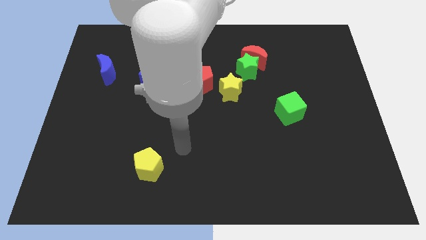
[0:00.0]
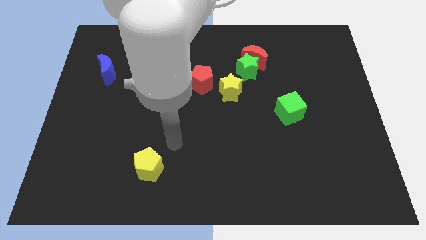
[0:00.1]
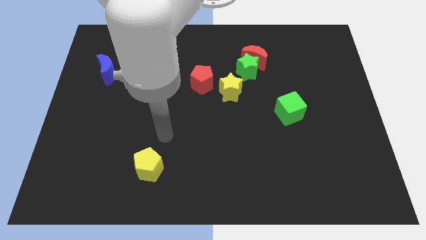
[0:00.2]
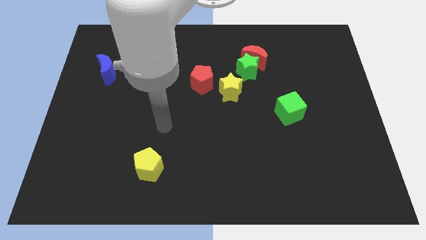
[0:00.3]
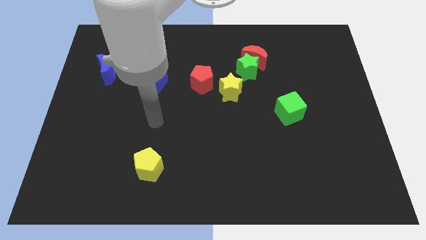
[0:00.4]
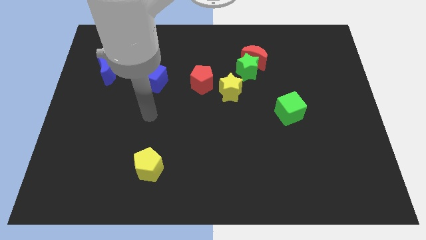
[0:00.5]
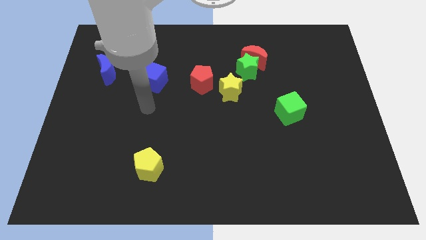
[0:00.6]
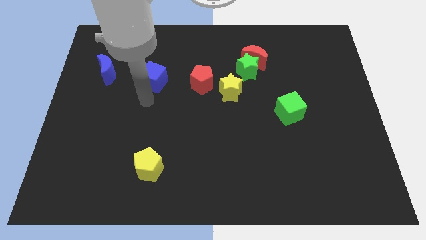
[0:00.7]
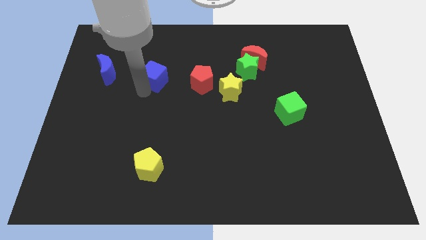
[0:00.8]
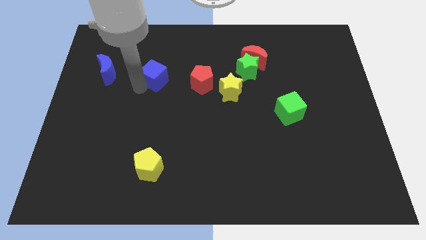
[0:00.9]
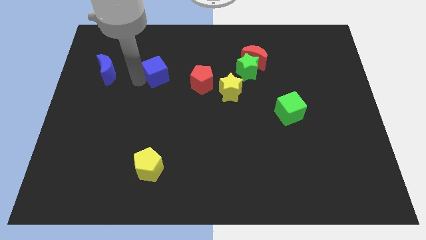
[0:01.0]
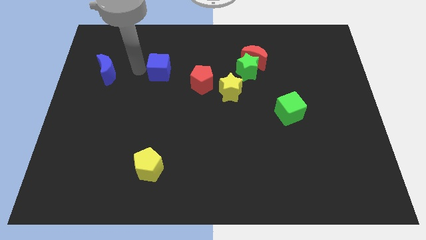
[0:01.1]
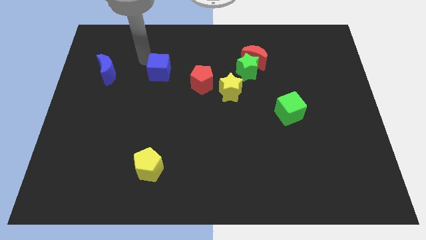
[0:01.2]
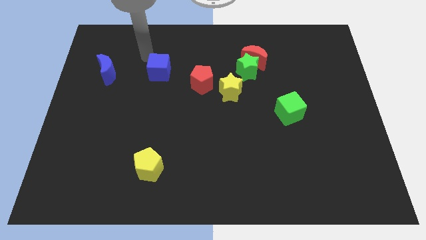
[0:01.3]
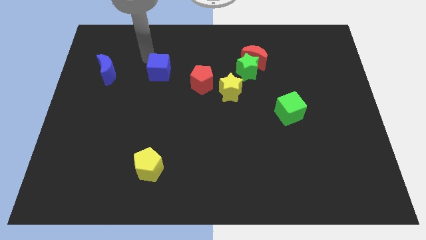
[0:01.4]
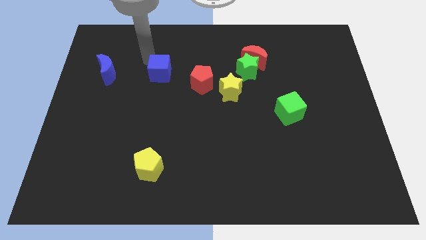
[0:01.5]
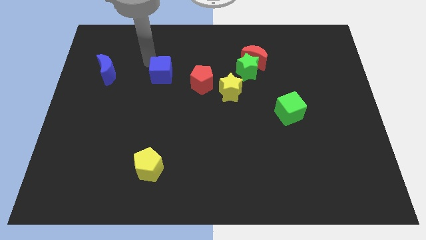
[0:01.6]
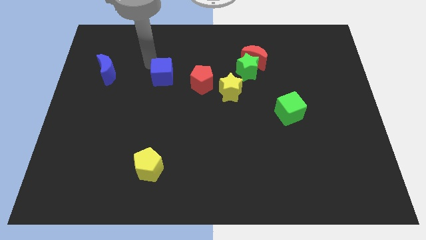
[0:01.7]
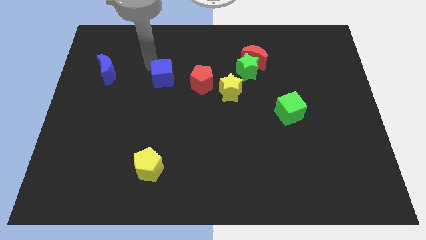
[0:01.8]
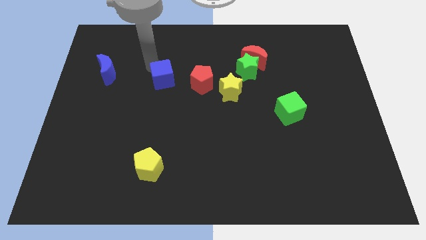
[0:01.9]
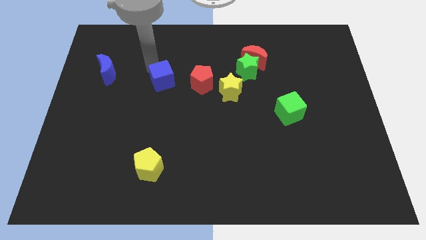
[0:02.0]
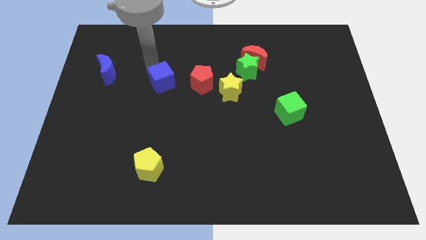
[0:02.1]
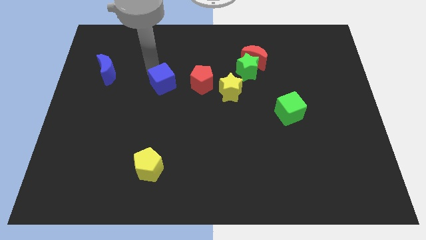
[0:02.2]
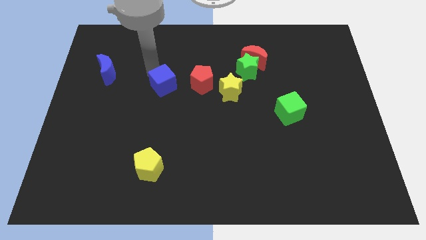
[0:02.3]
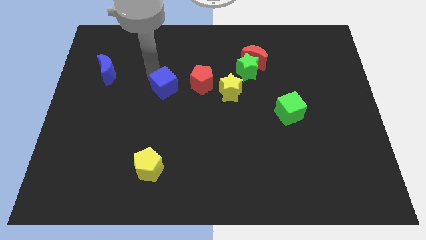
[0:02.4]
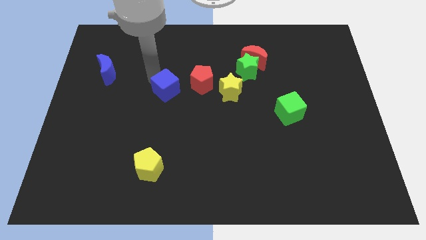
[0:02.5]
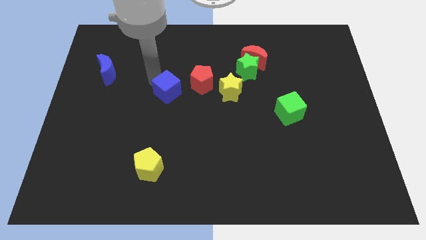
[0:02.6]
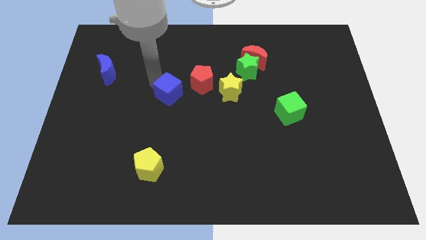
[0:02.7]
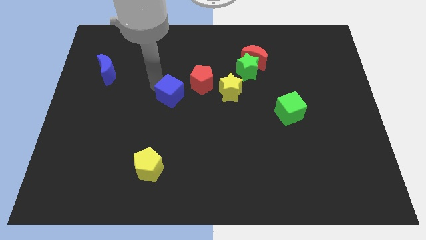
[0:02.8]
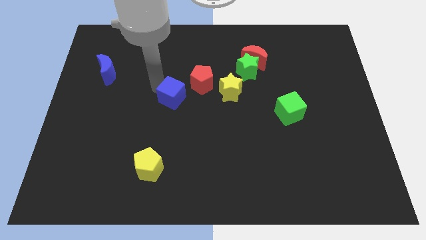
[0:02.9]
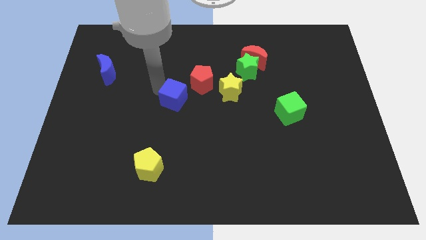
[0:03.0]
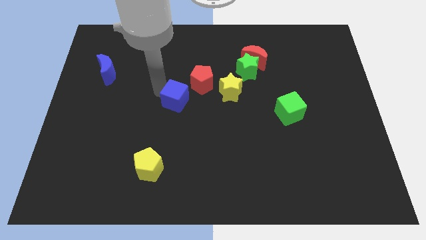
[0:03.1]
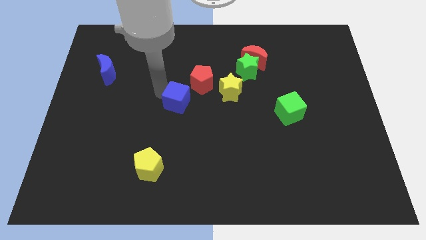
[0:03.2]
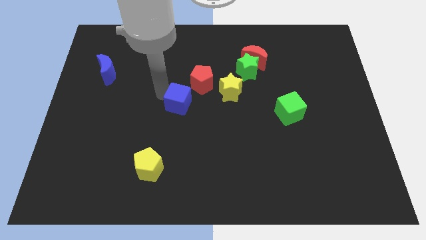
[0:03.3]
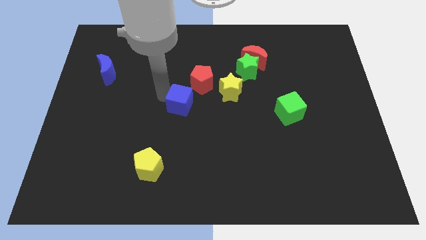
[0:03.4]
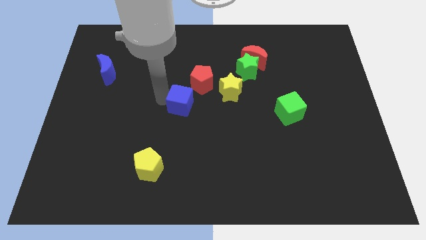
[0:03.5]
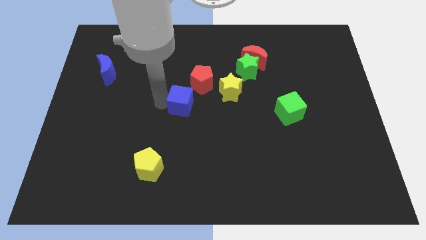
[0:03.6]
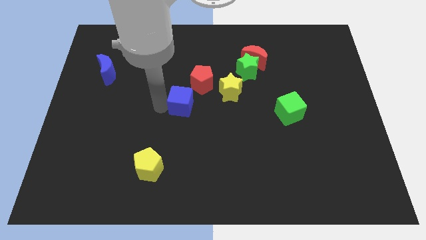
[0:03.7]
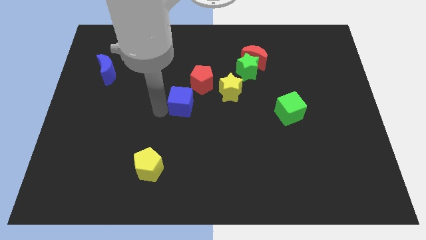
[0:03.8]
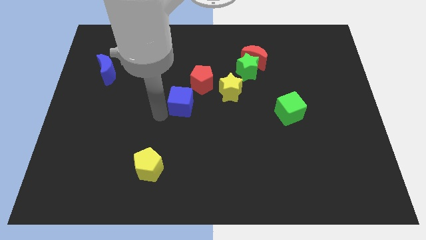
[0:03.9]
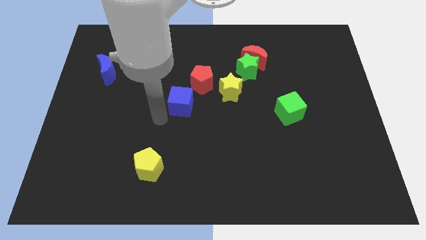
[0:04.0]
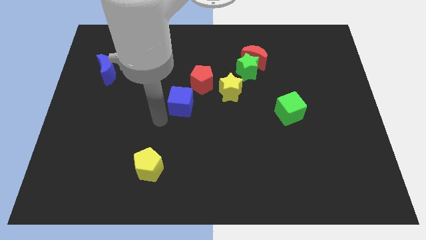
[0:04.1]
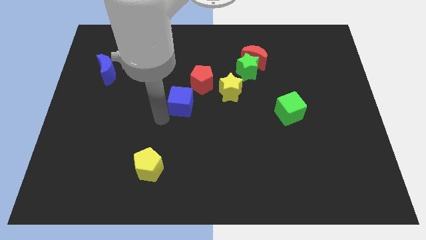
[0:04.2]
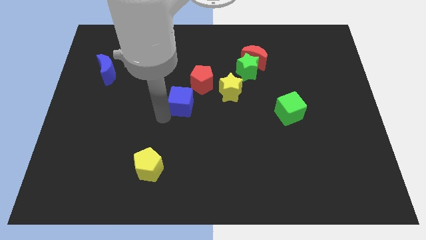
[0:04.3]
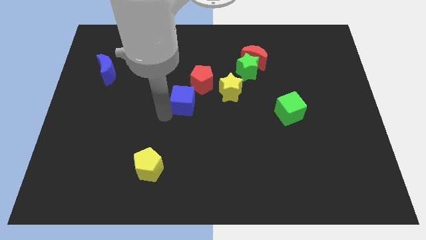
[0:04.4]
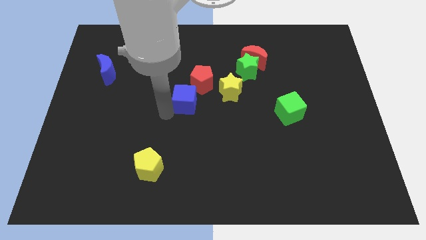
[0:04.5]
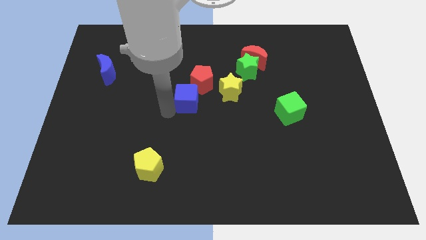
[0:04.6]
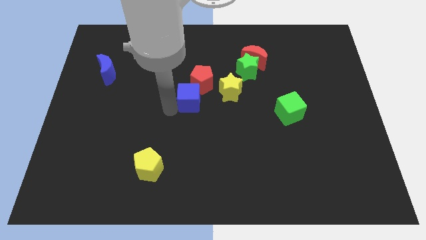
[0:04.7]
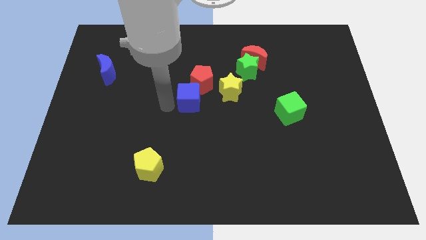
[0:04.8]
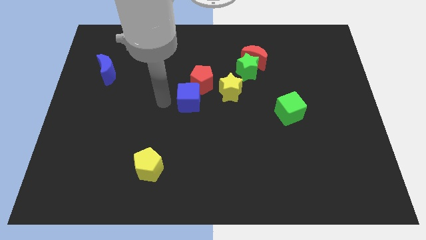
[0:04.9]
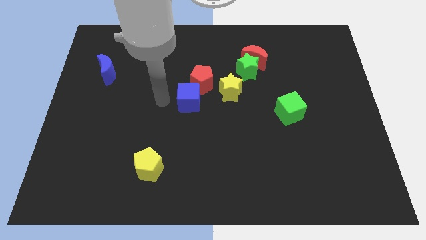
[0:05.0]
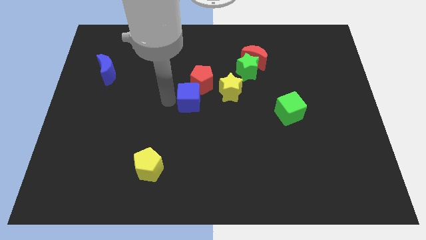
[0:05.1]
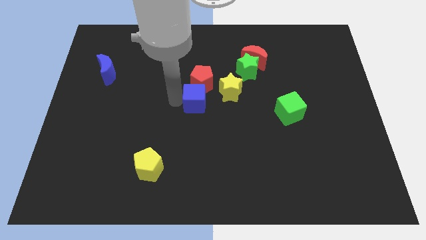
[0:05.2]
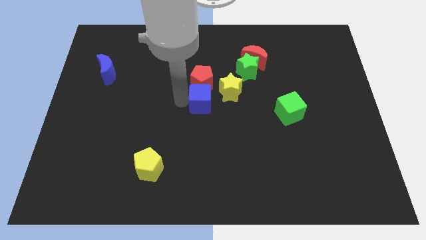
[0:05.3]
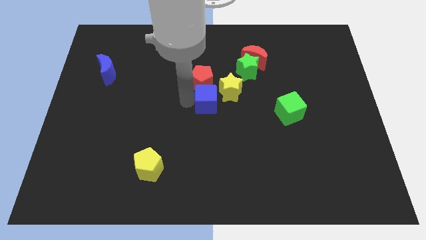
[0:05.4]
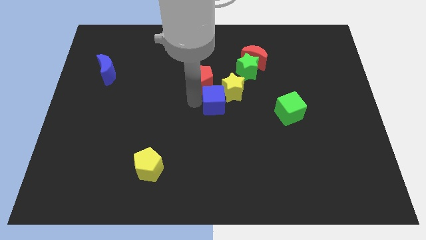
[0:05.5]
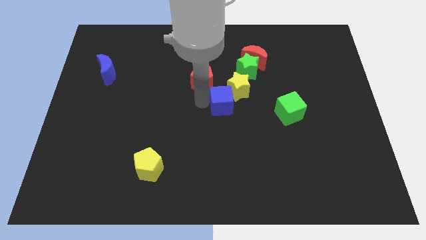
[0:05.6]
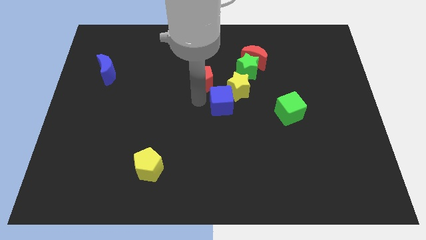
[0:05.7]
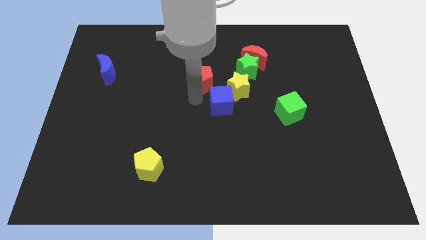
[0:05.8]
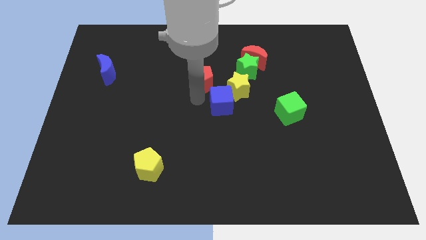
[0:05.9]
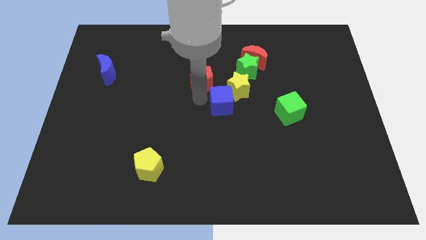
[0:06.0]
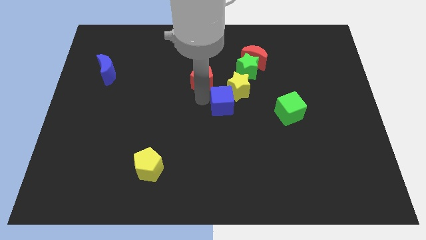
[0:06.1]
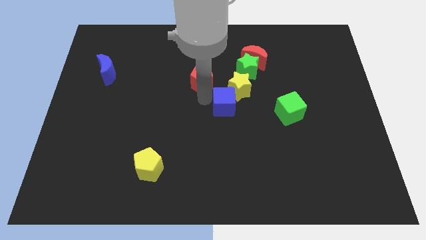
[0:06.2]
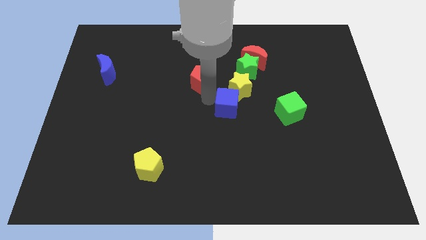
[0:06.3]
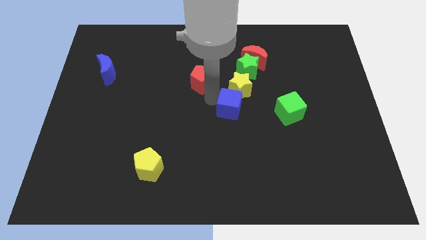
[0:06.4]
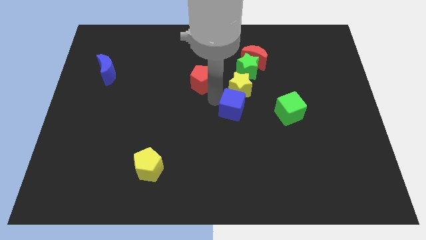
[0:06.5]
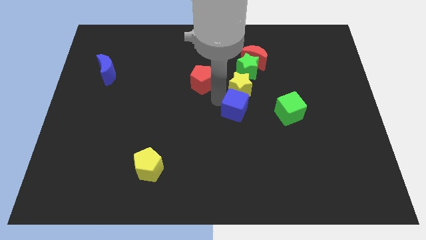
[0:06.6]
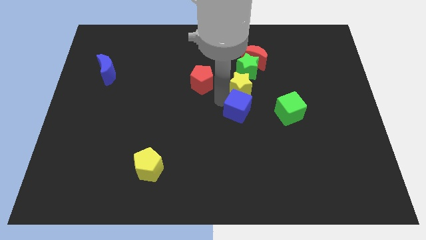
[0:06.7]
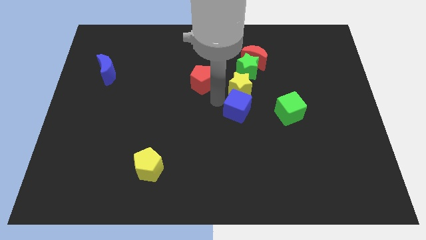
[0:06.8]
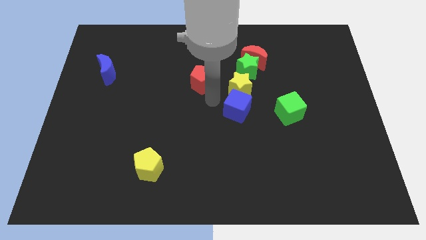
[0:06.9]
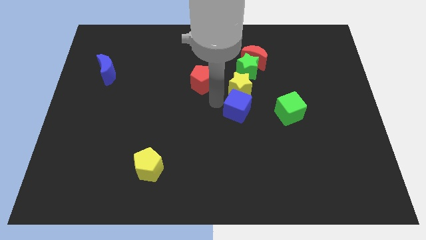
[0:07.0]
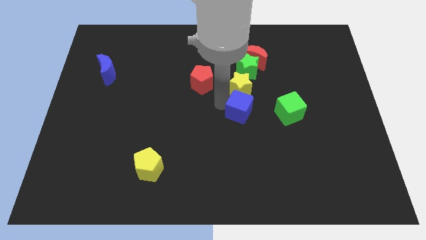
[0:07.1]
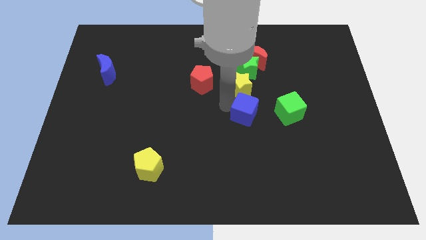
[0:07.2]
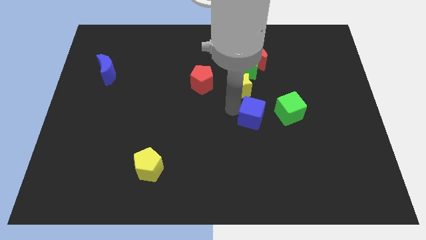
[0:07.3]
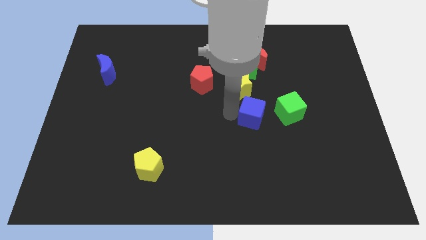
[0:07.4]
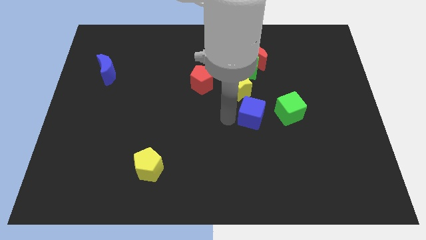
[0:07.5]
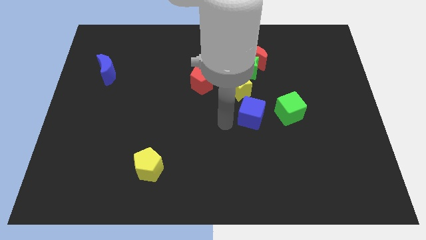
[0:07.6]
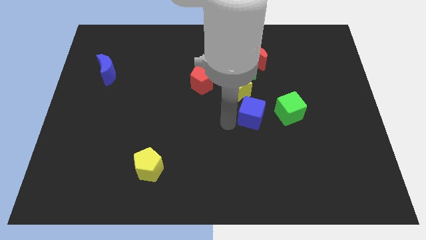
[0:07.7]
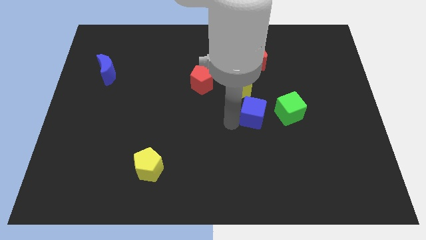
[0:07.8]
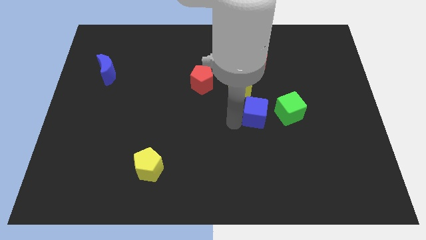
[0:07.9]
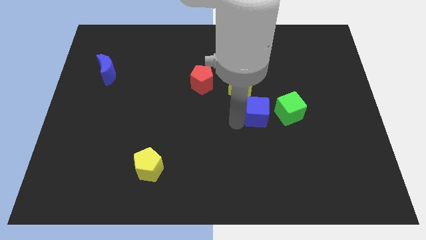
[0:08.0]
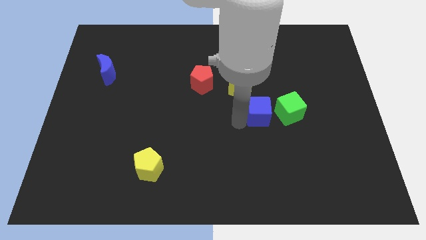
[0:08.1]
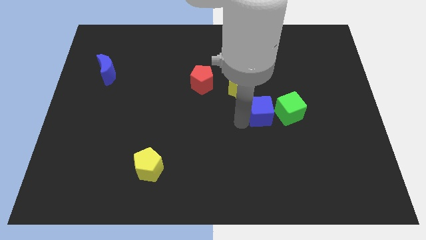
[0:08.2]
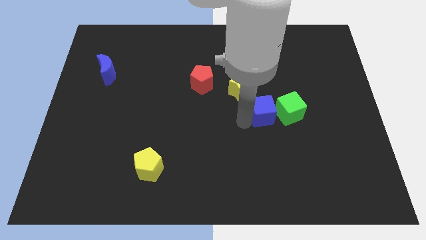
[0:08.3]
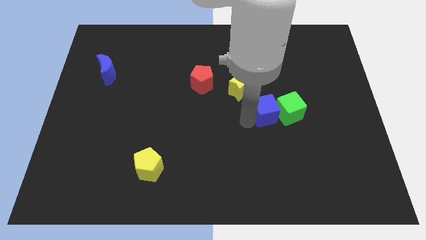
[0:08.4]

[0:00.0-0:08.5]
put the blue cube towards the green cube
